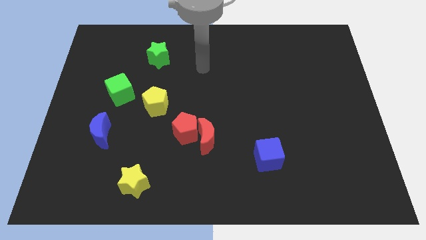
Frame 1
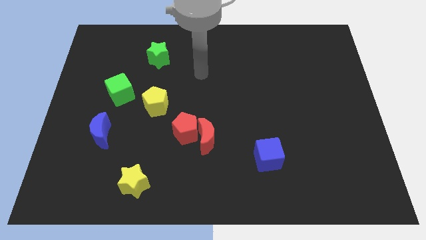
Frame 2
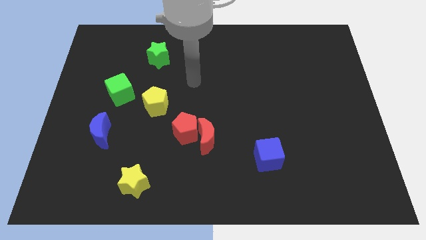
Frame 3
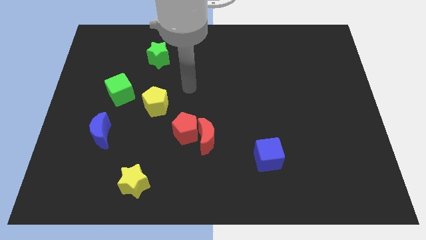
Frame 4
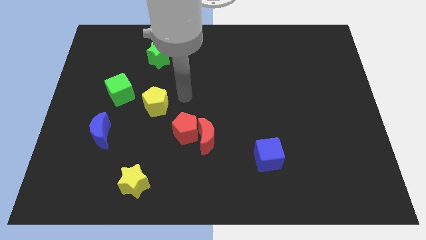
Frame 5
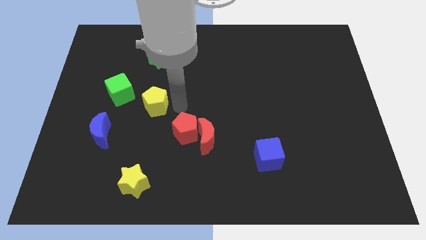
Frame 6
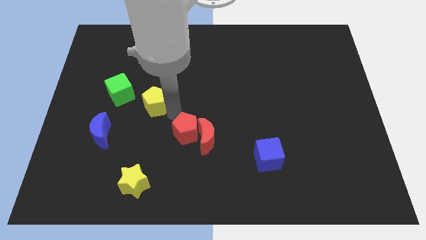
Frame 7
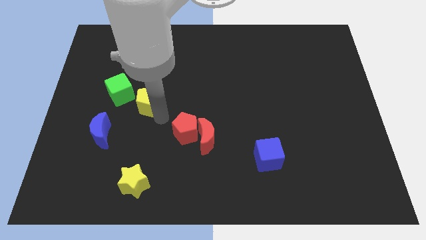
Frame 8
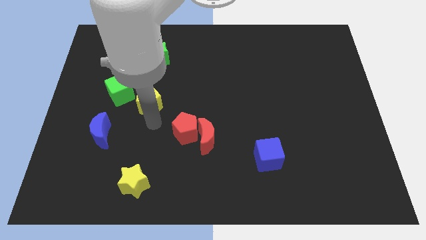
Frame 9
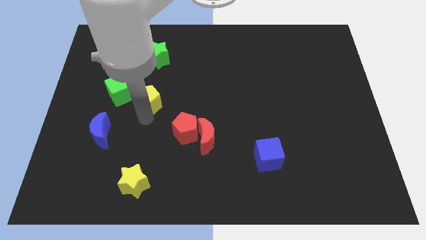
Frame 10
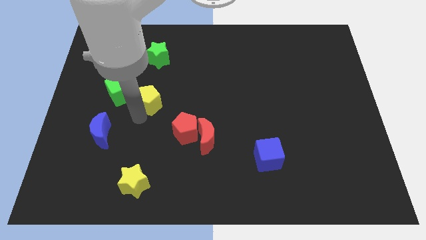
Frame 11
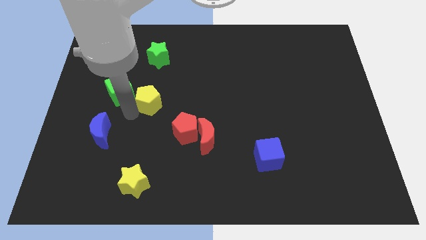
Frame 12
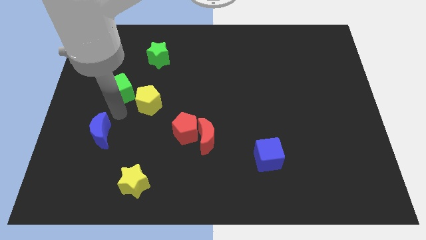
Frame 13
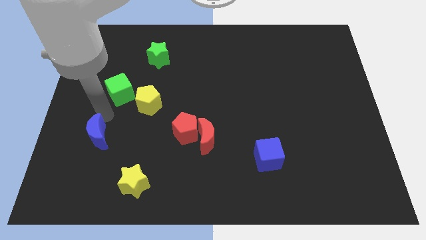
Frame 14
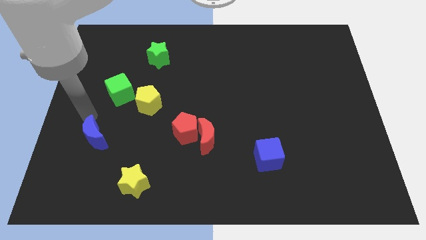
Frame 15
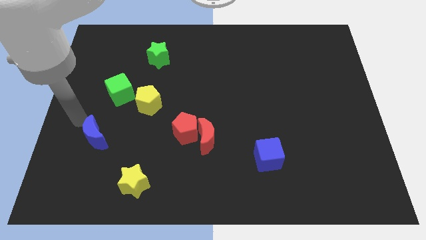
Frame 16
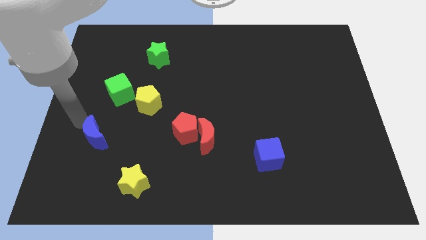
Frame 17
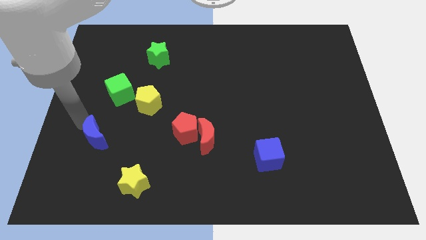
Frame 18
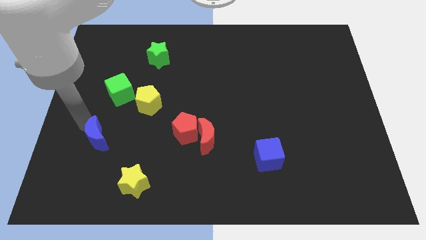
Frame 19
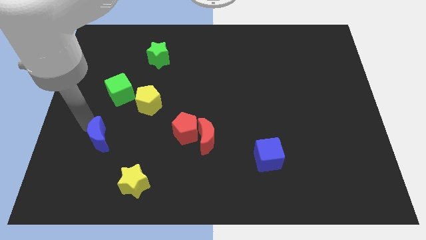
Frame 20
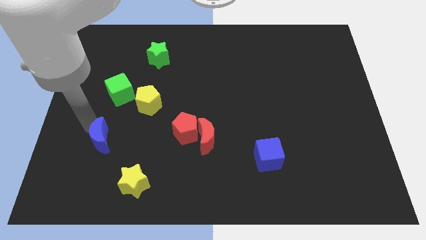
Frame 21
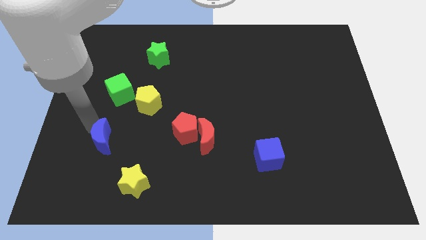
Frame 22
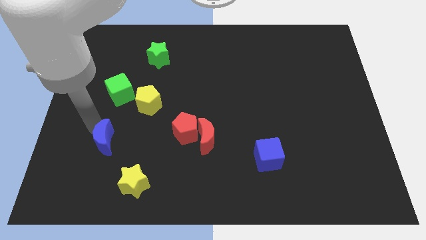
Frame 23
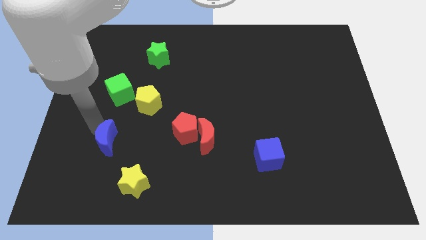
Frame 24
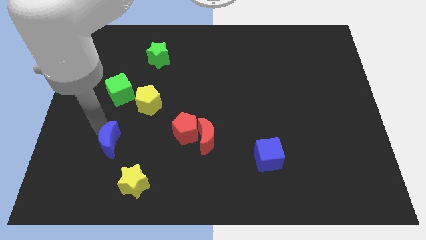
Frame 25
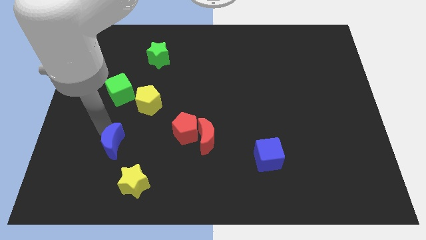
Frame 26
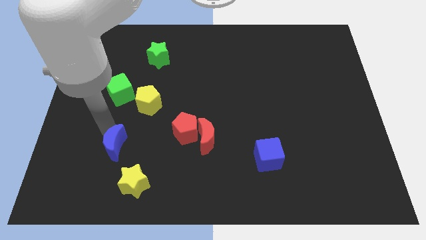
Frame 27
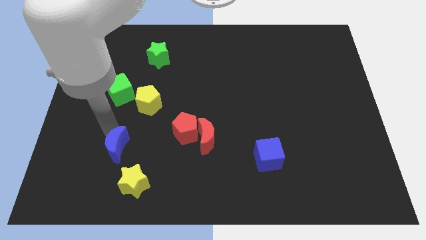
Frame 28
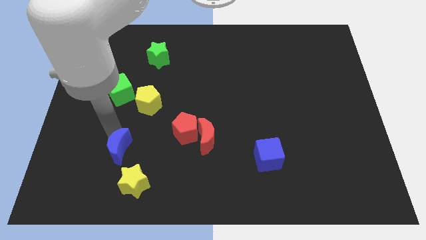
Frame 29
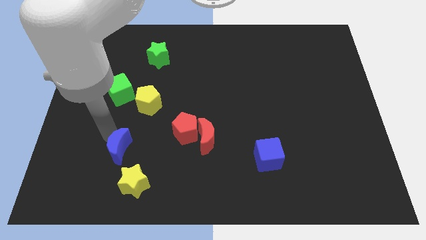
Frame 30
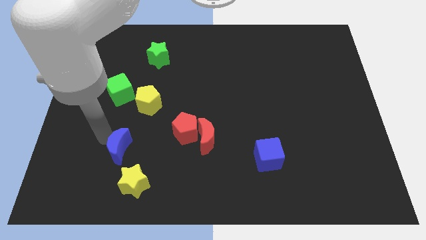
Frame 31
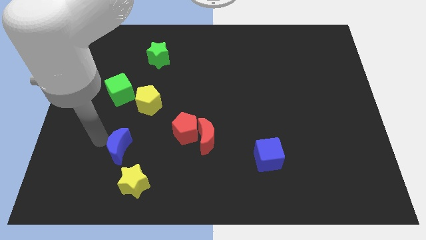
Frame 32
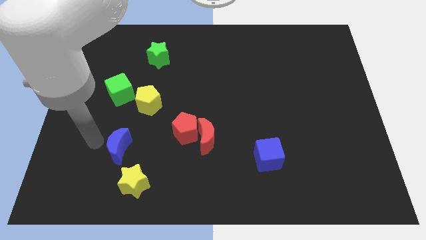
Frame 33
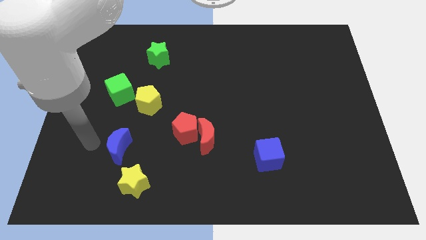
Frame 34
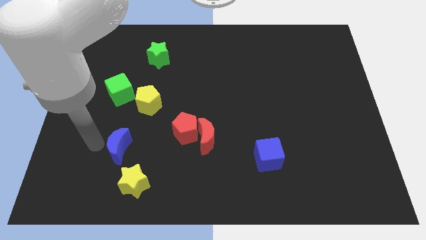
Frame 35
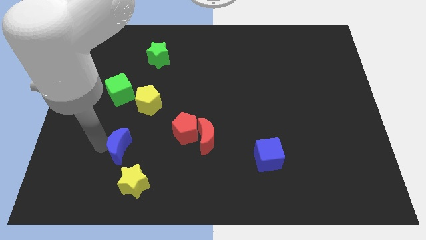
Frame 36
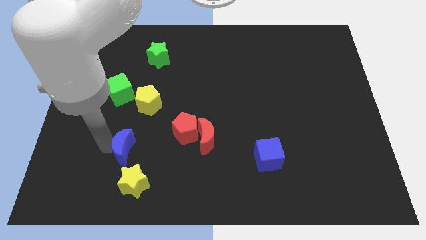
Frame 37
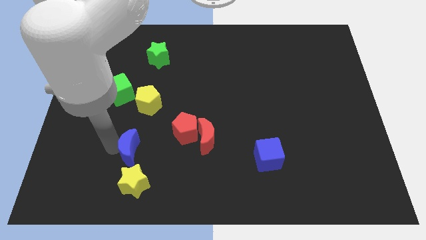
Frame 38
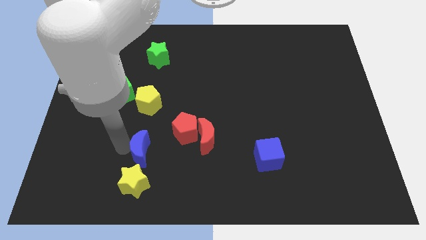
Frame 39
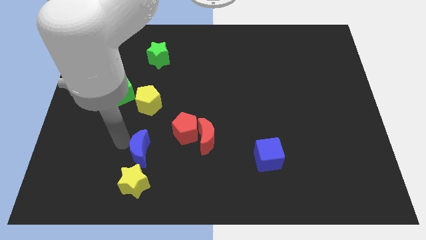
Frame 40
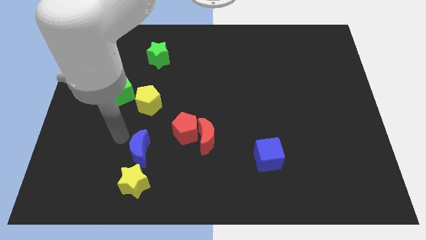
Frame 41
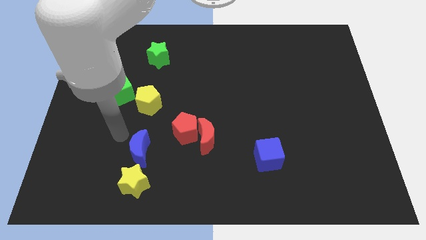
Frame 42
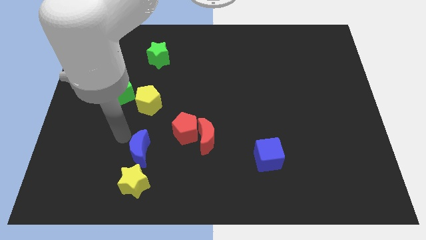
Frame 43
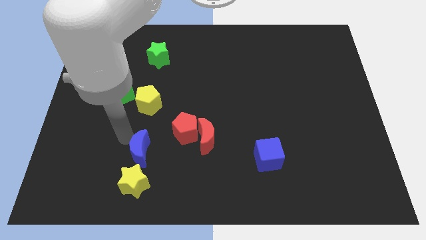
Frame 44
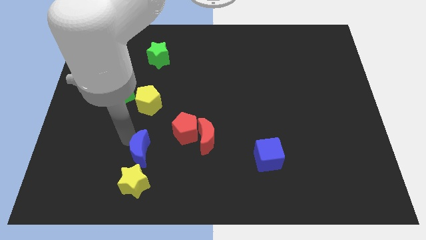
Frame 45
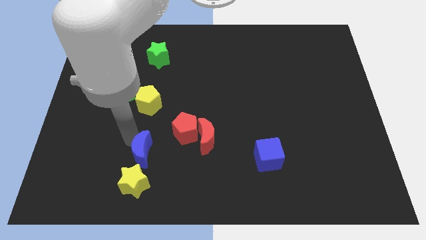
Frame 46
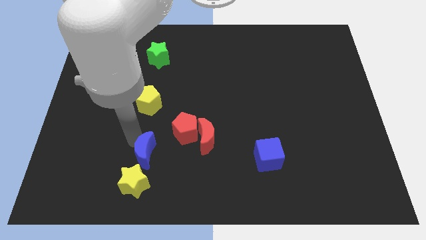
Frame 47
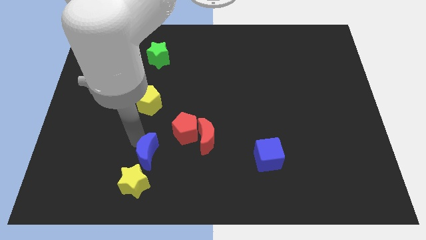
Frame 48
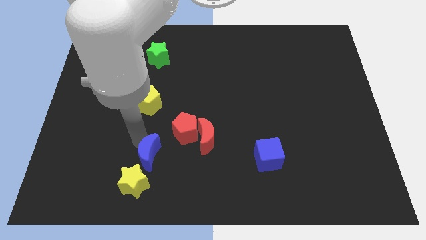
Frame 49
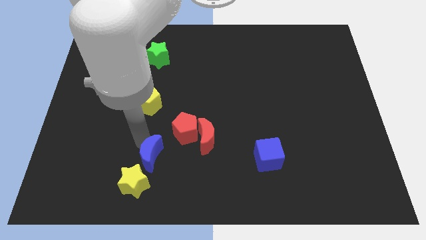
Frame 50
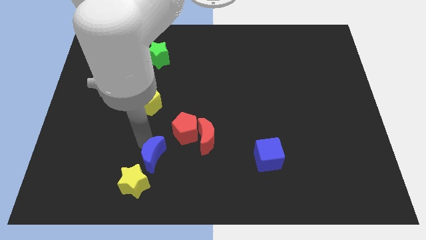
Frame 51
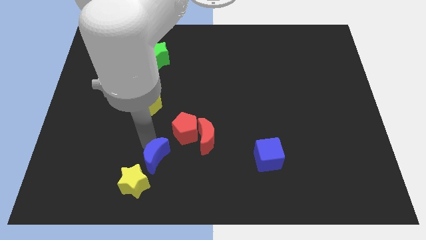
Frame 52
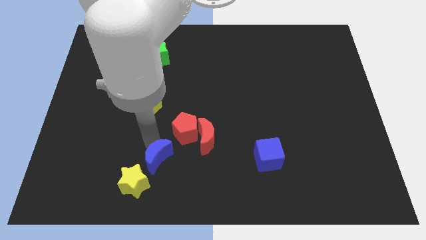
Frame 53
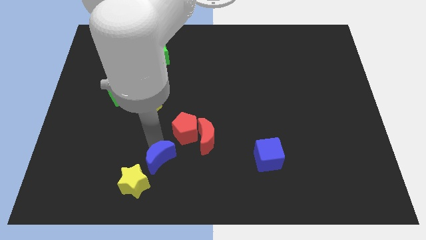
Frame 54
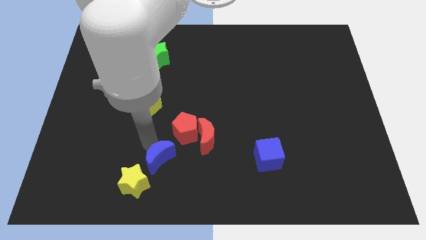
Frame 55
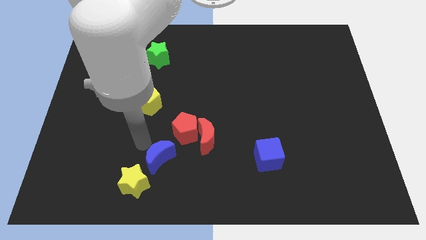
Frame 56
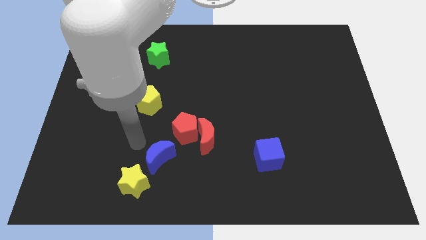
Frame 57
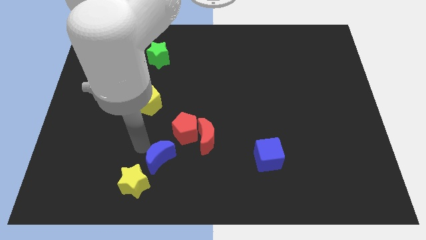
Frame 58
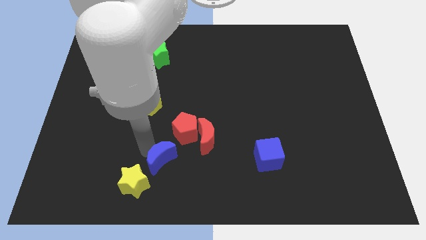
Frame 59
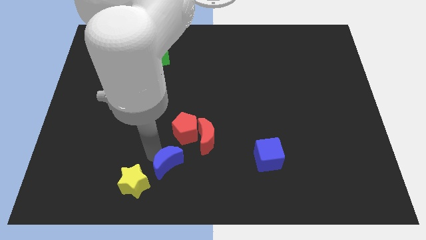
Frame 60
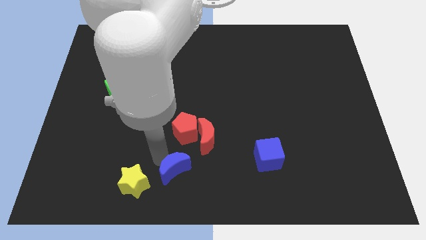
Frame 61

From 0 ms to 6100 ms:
put the blue moon to the bottom side
